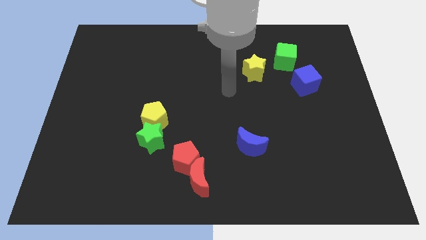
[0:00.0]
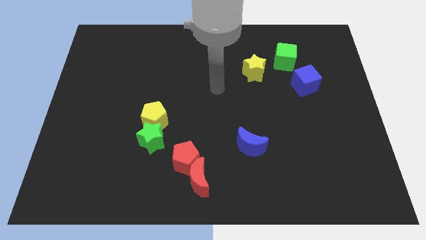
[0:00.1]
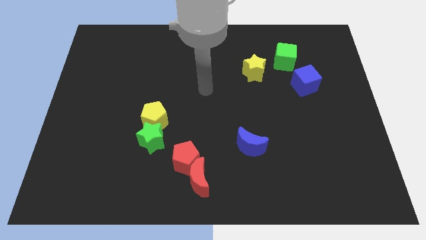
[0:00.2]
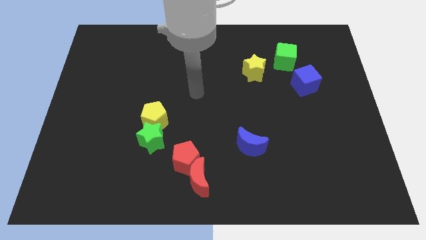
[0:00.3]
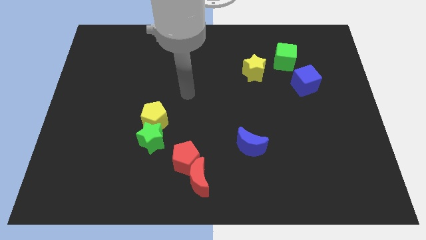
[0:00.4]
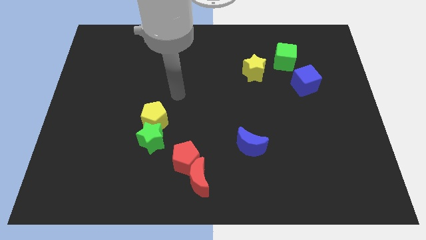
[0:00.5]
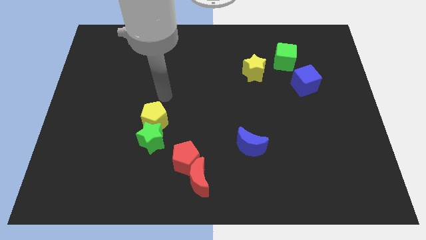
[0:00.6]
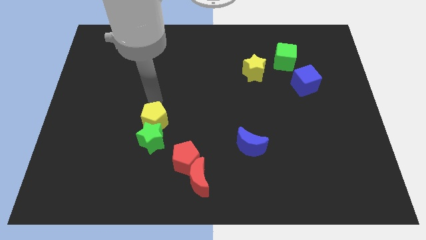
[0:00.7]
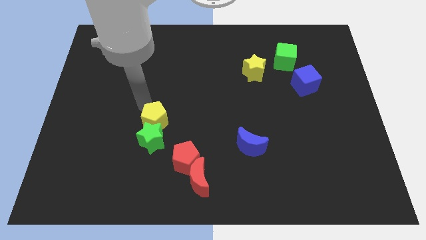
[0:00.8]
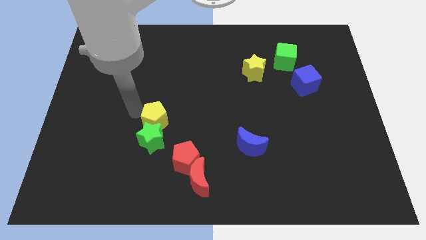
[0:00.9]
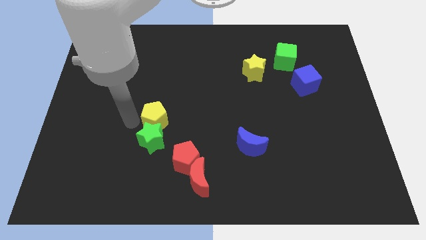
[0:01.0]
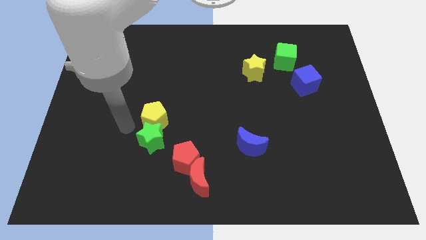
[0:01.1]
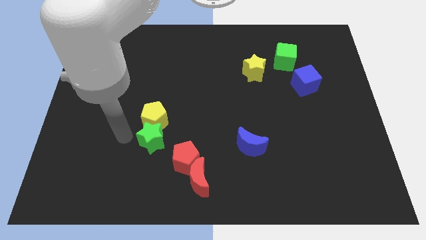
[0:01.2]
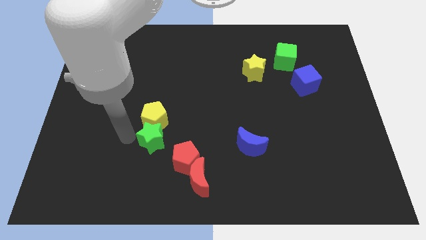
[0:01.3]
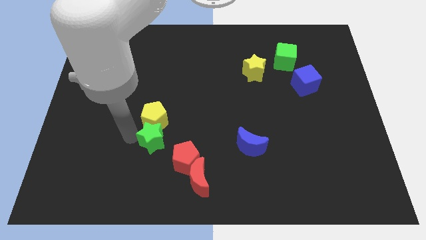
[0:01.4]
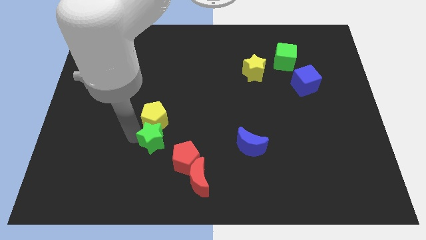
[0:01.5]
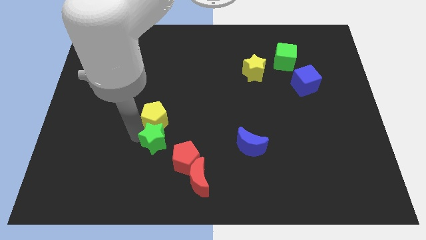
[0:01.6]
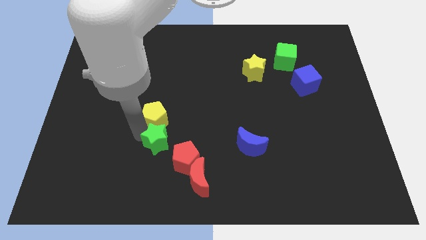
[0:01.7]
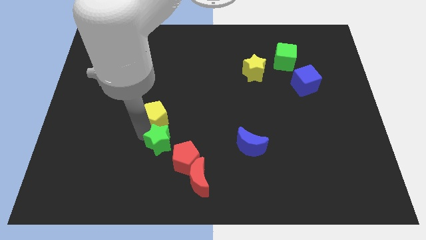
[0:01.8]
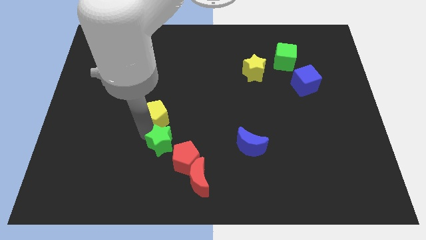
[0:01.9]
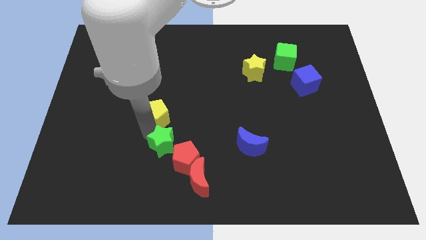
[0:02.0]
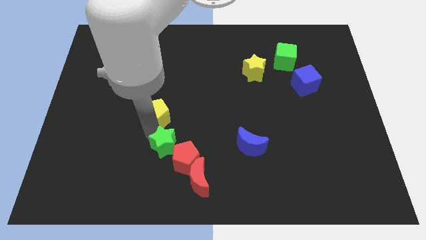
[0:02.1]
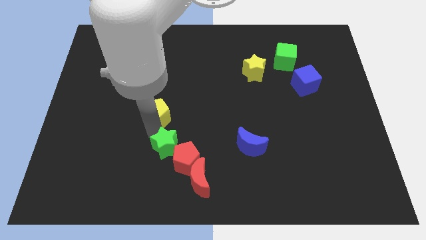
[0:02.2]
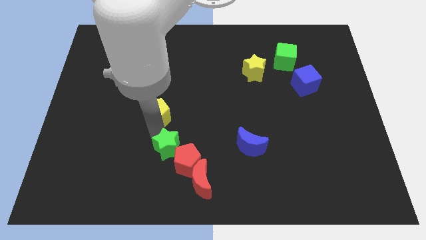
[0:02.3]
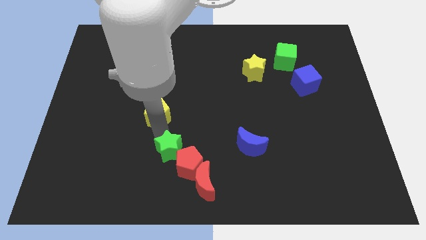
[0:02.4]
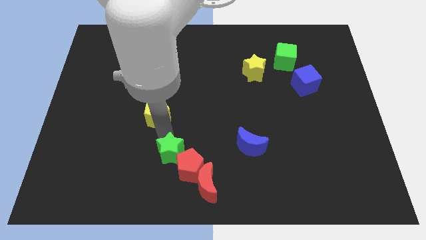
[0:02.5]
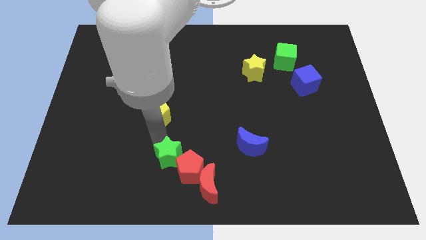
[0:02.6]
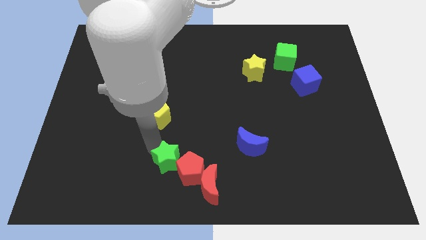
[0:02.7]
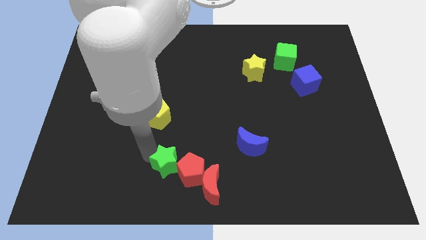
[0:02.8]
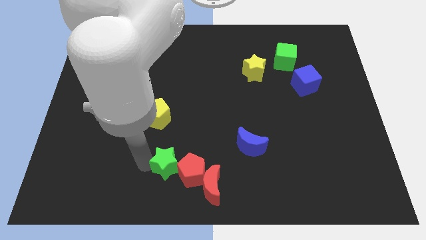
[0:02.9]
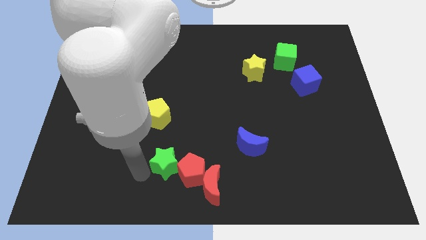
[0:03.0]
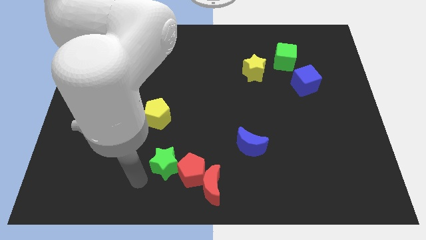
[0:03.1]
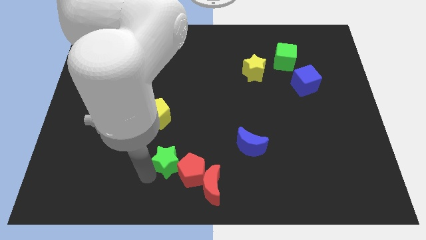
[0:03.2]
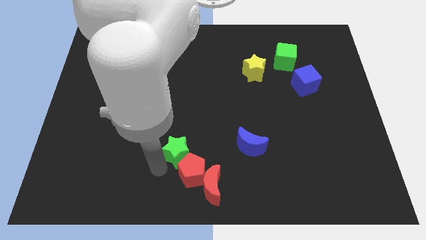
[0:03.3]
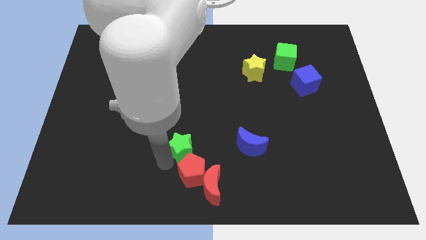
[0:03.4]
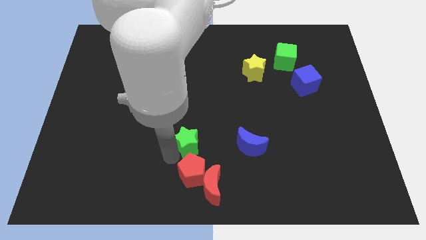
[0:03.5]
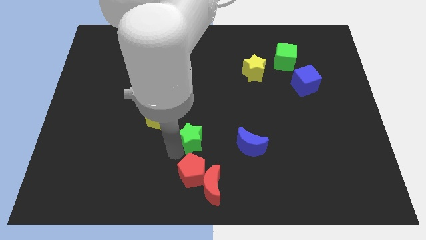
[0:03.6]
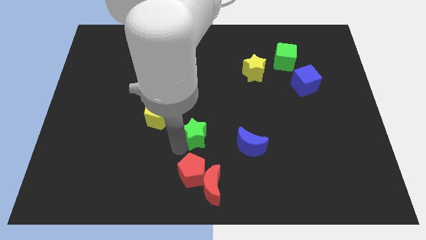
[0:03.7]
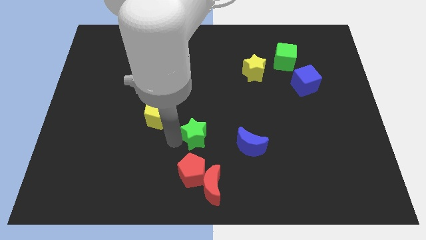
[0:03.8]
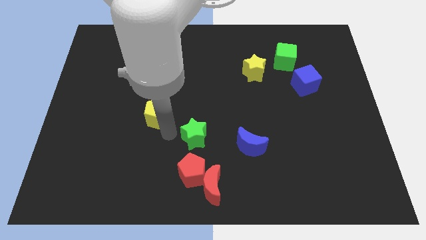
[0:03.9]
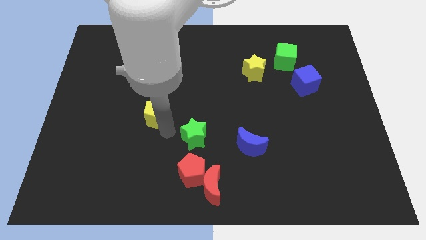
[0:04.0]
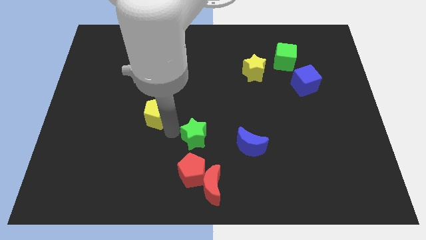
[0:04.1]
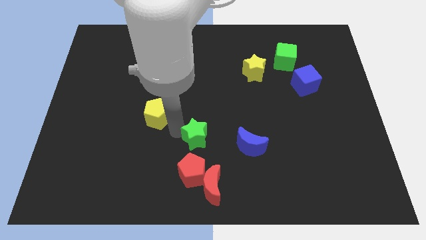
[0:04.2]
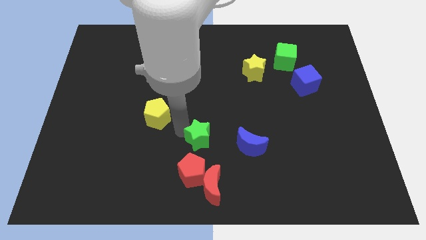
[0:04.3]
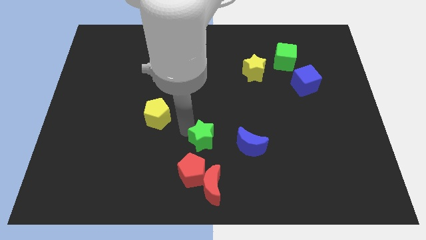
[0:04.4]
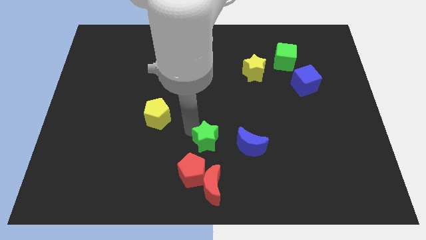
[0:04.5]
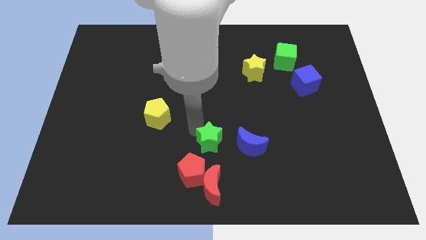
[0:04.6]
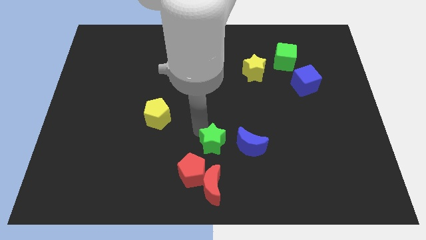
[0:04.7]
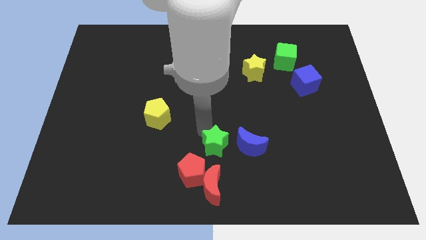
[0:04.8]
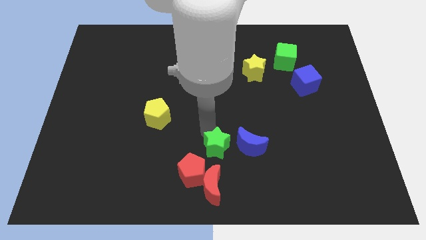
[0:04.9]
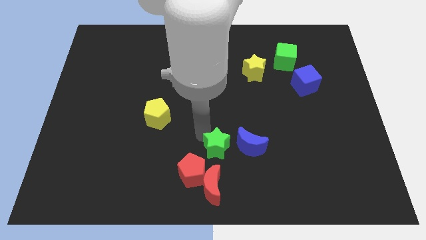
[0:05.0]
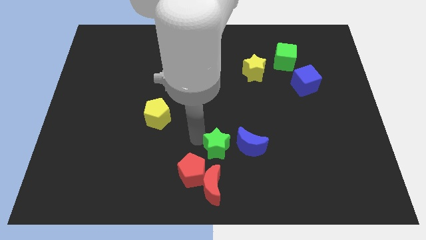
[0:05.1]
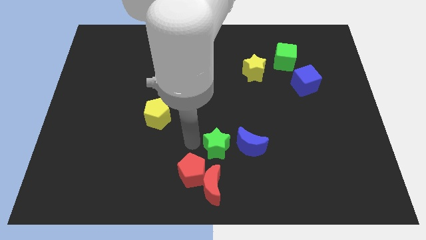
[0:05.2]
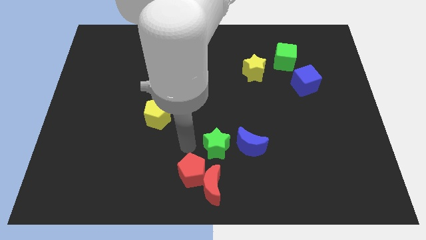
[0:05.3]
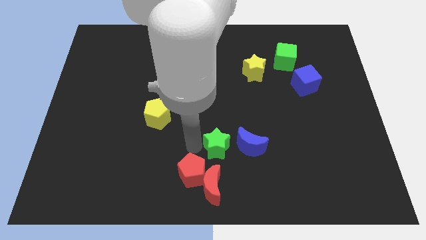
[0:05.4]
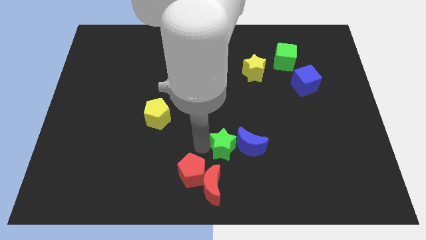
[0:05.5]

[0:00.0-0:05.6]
slide the green star next to the blue moon

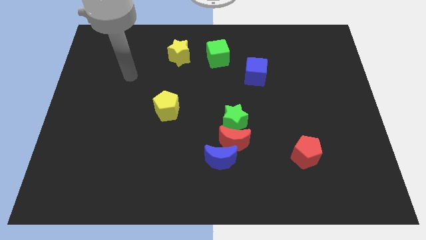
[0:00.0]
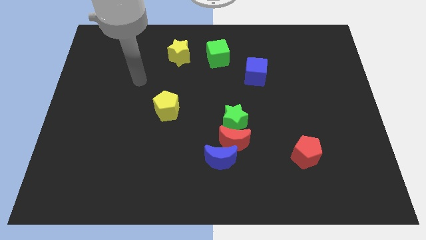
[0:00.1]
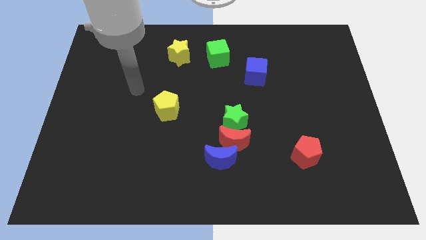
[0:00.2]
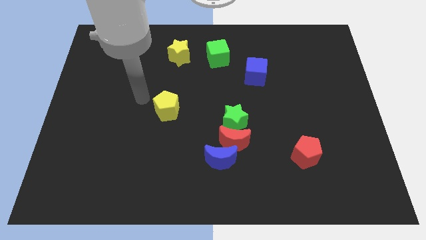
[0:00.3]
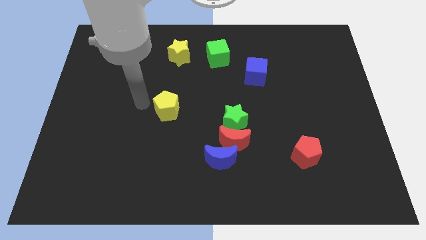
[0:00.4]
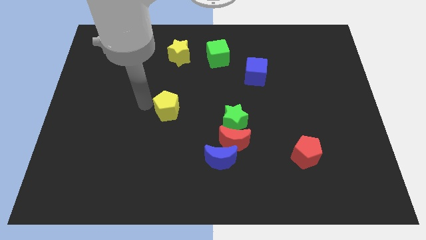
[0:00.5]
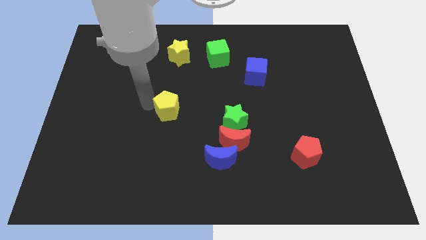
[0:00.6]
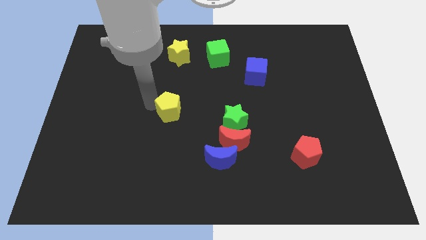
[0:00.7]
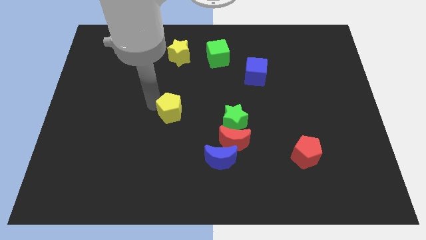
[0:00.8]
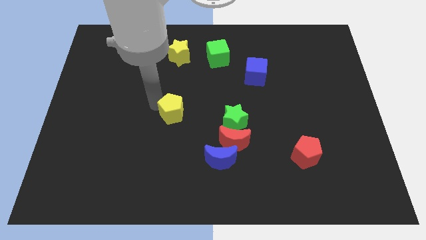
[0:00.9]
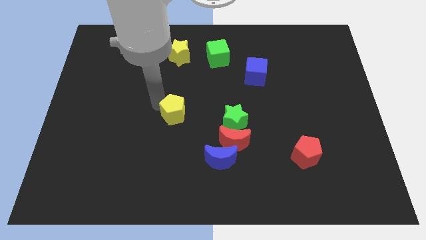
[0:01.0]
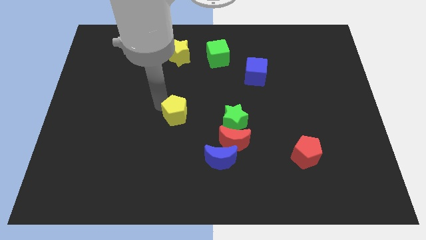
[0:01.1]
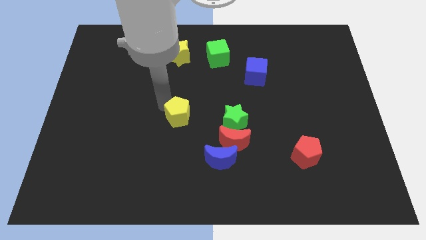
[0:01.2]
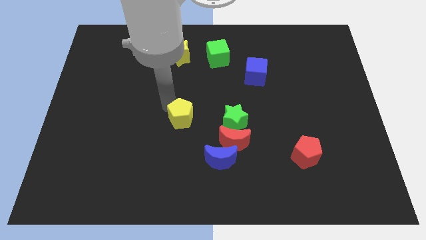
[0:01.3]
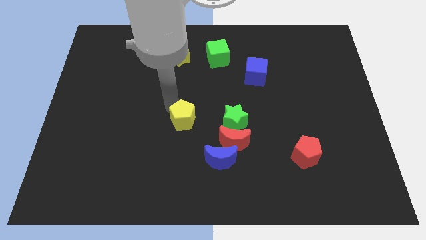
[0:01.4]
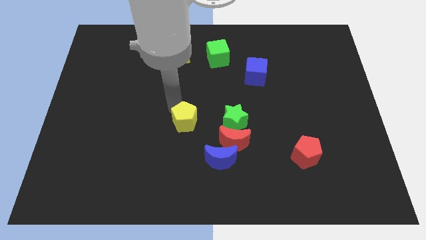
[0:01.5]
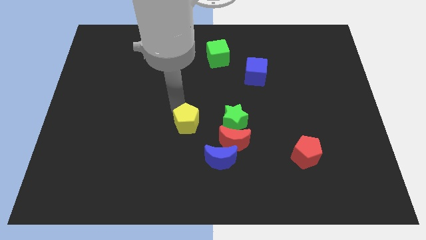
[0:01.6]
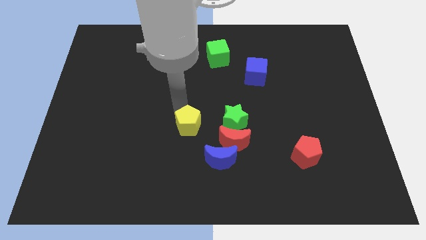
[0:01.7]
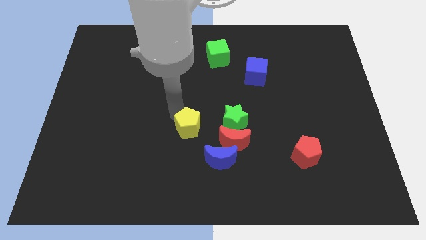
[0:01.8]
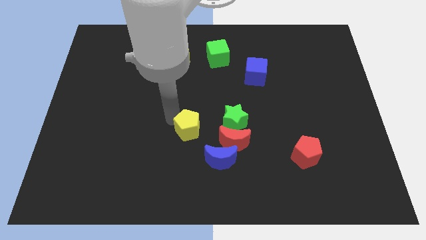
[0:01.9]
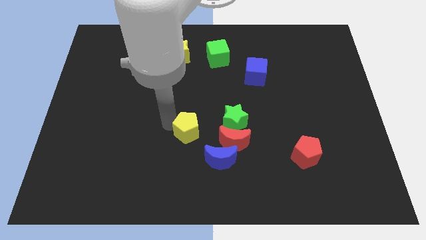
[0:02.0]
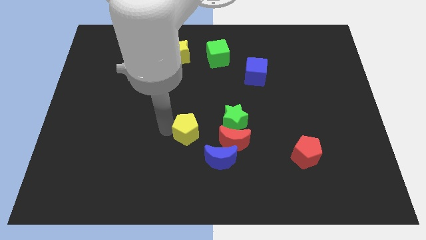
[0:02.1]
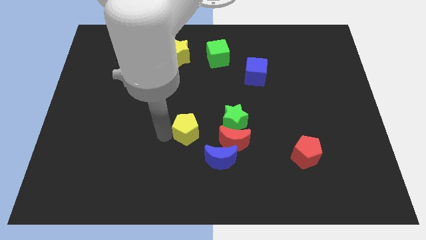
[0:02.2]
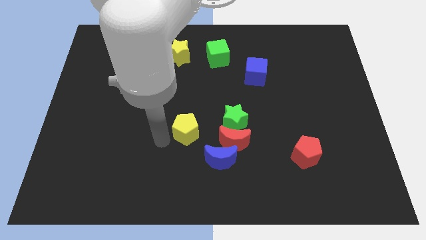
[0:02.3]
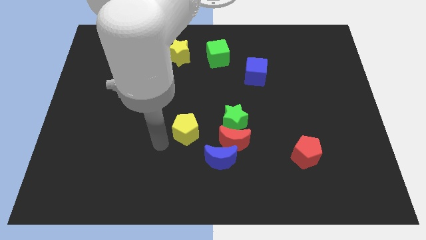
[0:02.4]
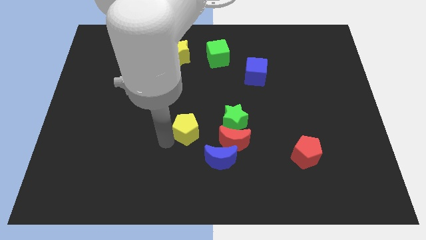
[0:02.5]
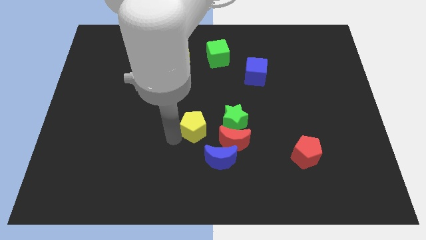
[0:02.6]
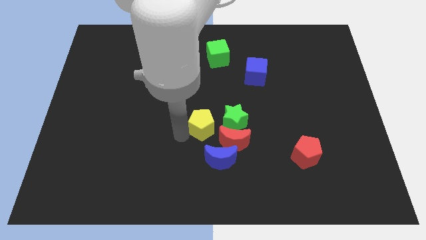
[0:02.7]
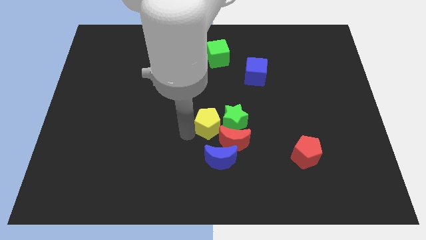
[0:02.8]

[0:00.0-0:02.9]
move the yellow pentagon next to the green star
